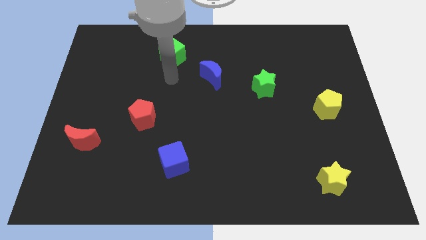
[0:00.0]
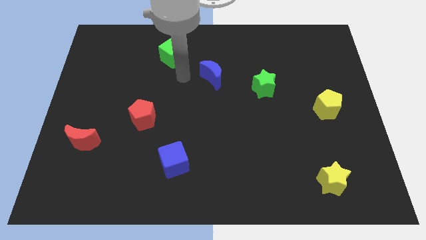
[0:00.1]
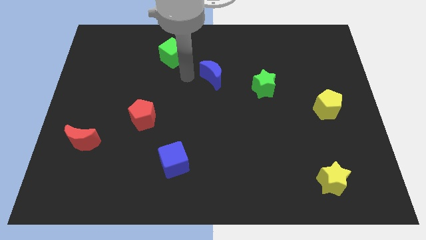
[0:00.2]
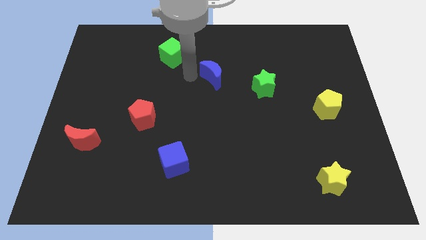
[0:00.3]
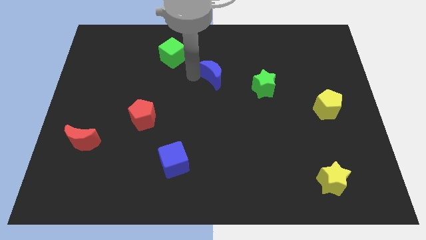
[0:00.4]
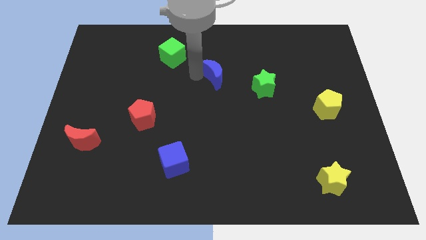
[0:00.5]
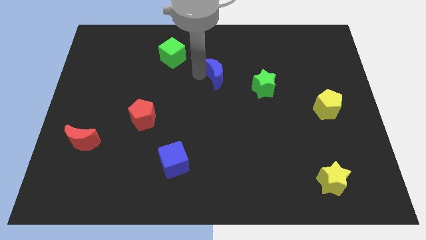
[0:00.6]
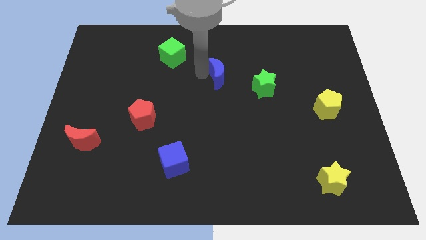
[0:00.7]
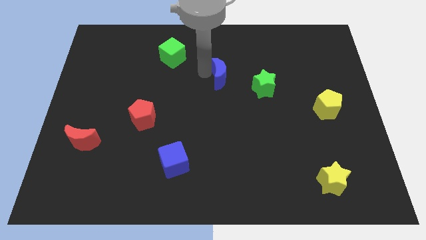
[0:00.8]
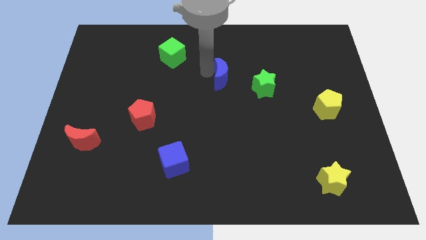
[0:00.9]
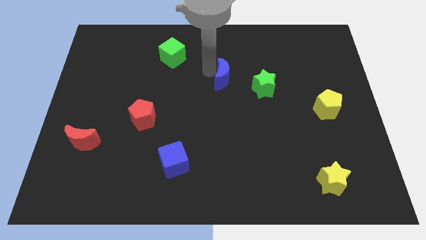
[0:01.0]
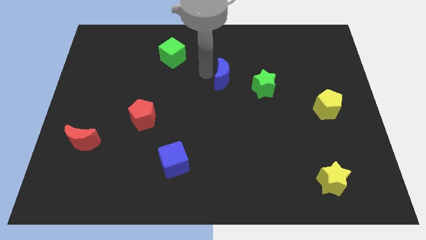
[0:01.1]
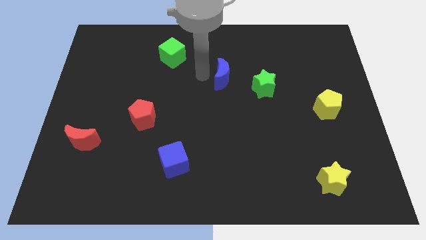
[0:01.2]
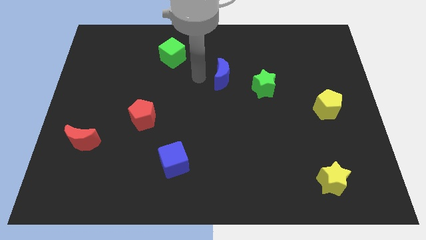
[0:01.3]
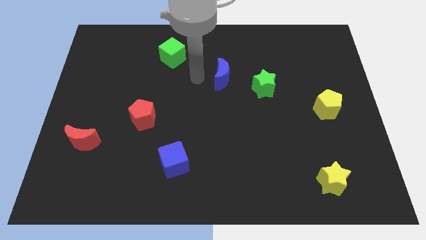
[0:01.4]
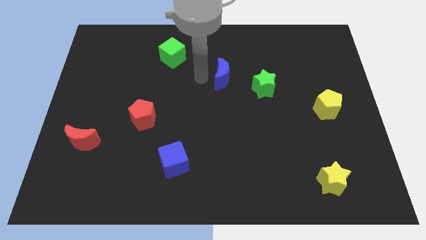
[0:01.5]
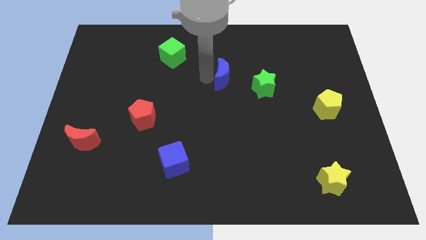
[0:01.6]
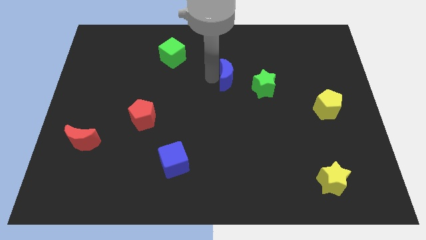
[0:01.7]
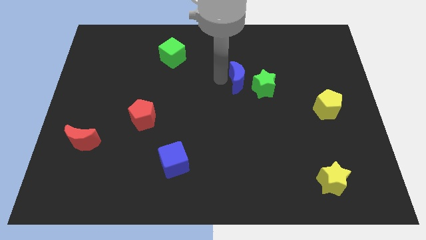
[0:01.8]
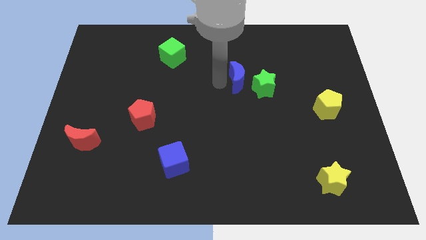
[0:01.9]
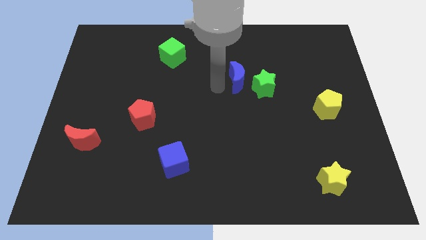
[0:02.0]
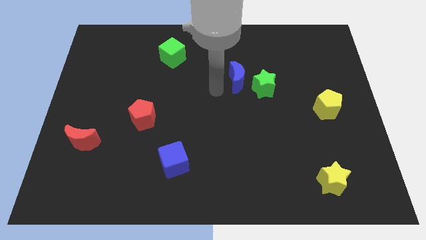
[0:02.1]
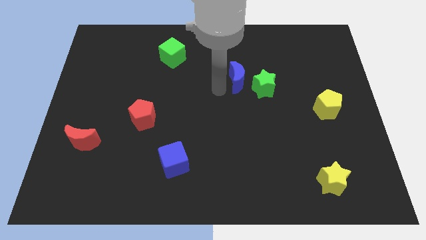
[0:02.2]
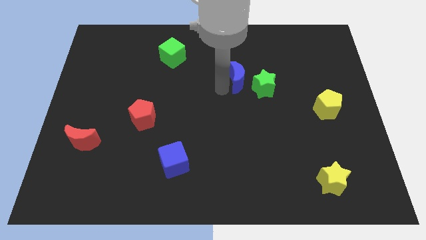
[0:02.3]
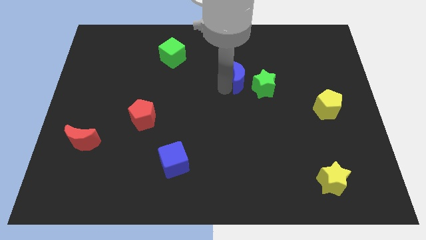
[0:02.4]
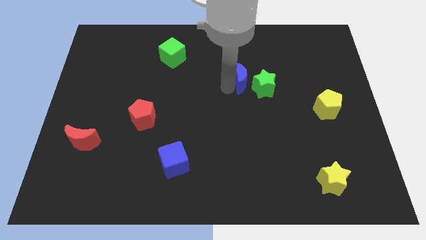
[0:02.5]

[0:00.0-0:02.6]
move the blue moon somewhat to the right

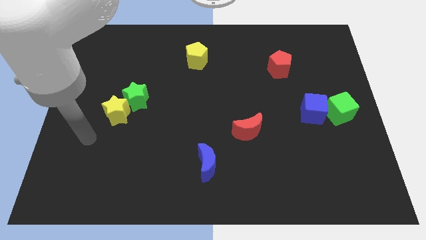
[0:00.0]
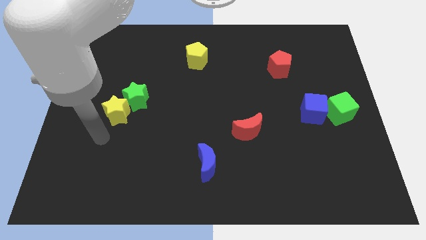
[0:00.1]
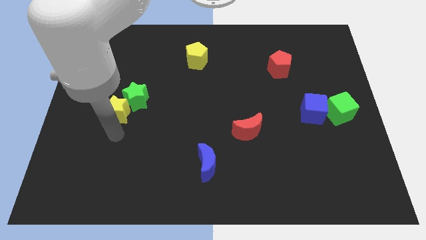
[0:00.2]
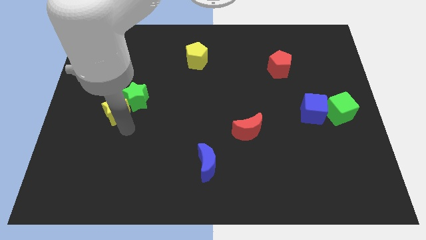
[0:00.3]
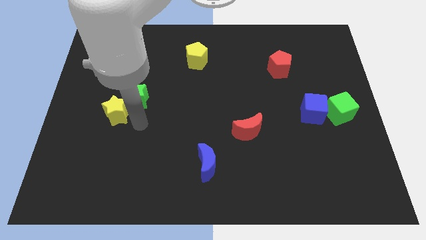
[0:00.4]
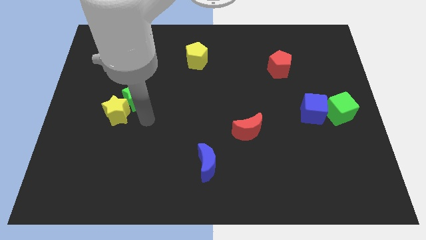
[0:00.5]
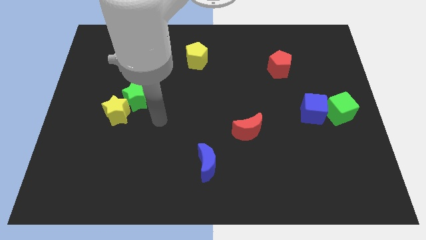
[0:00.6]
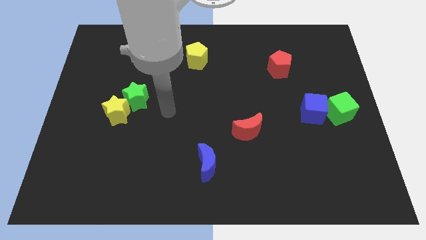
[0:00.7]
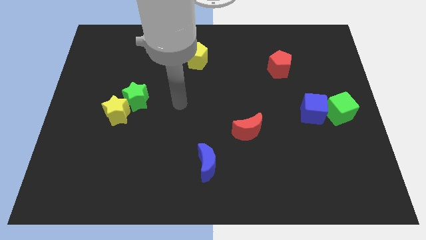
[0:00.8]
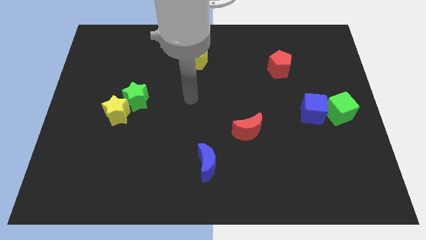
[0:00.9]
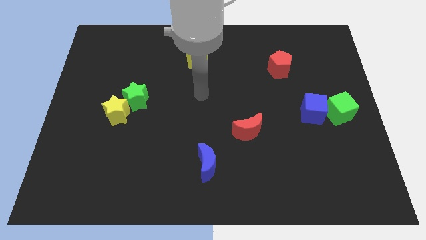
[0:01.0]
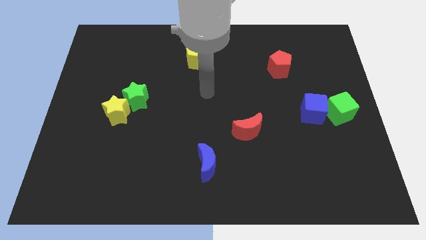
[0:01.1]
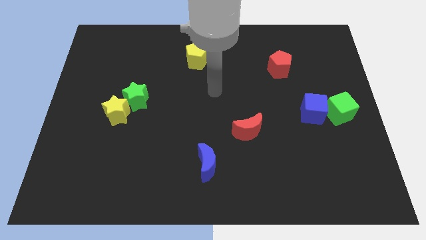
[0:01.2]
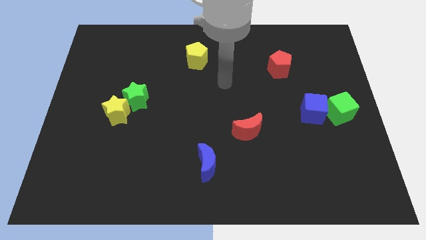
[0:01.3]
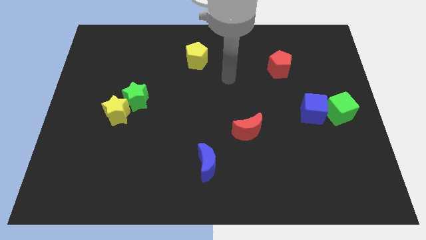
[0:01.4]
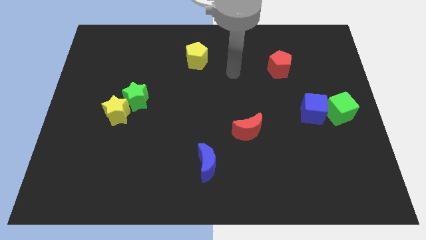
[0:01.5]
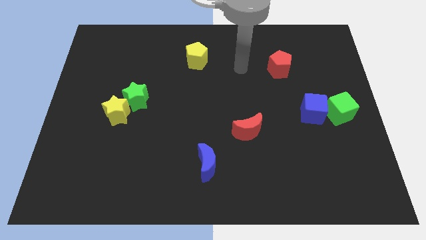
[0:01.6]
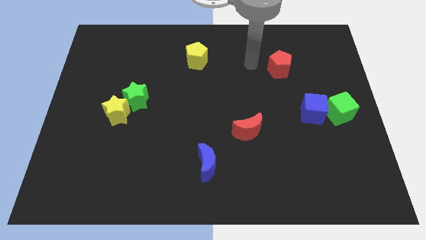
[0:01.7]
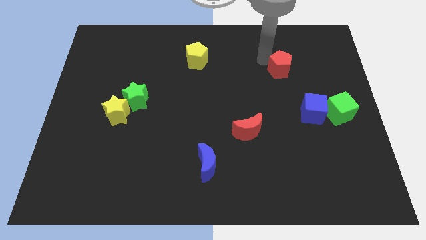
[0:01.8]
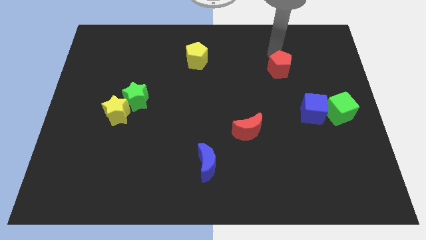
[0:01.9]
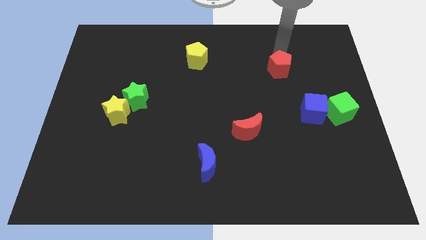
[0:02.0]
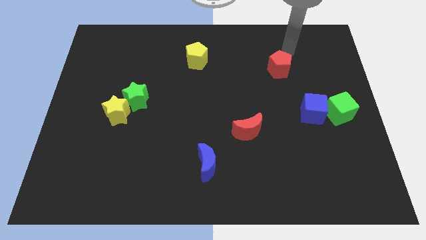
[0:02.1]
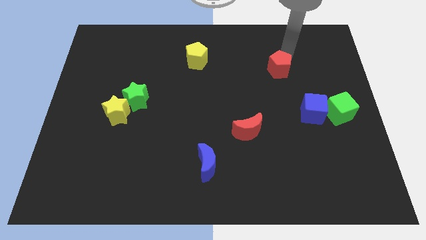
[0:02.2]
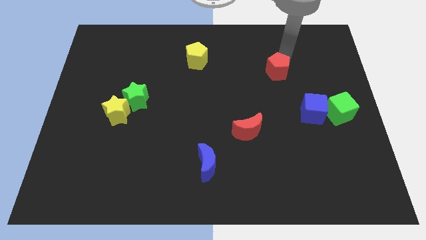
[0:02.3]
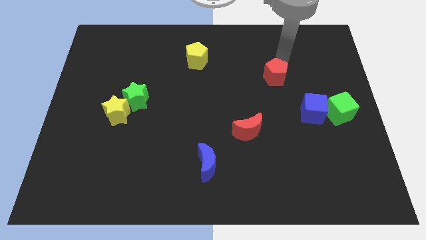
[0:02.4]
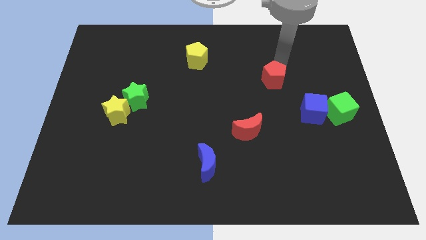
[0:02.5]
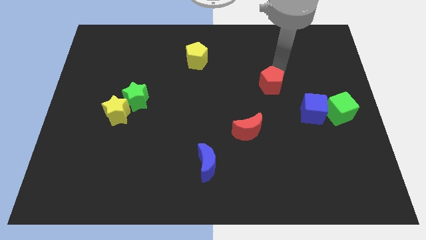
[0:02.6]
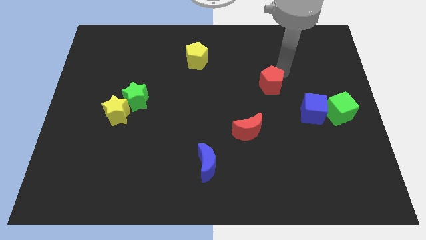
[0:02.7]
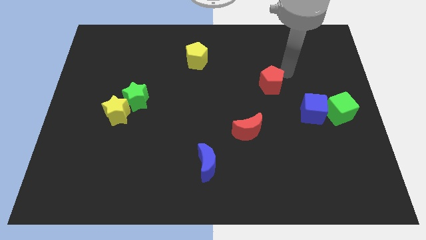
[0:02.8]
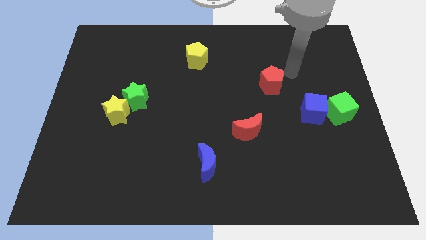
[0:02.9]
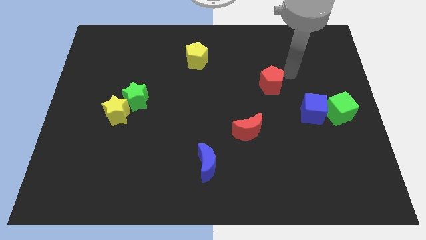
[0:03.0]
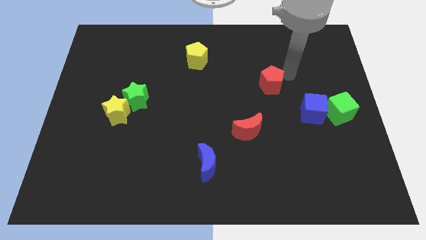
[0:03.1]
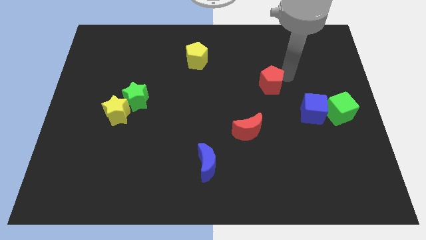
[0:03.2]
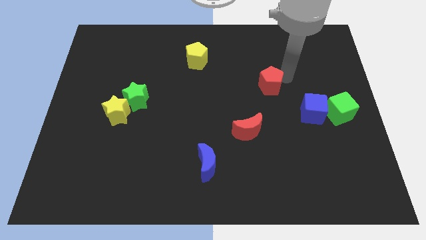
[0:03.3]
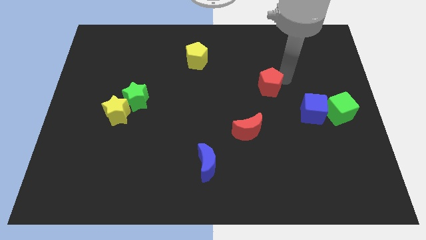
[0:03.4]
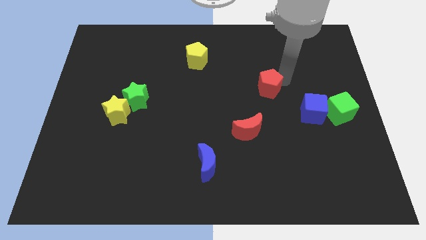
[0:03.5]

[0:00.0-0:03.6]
push the red pentagon downwards and then to the left a little

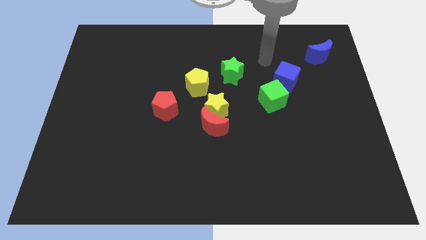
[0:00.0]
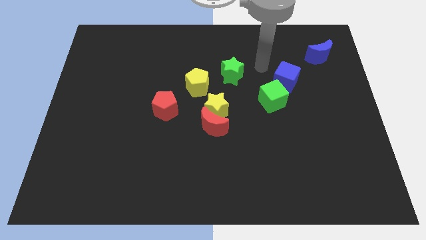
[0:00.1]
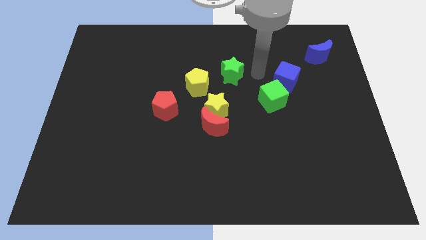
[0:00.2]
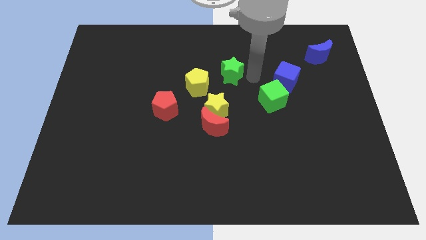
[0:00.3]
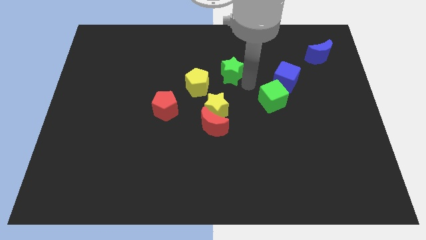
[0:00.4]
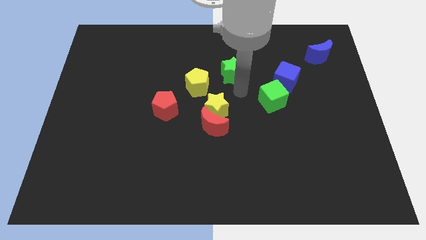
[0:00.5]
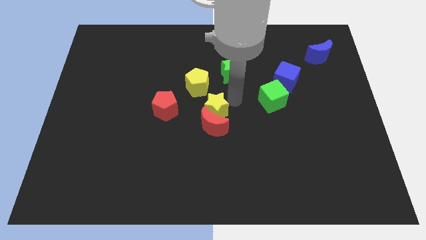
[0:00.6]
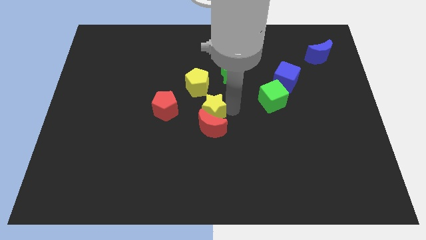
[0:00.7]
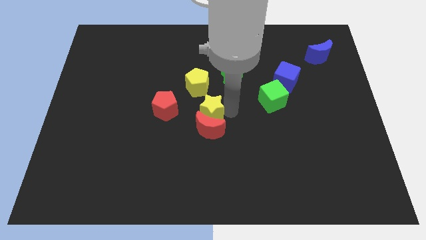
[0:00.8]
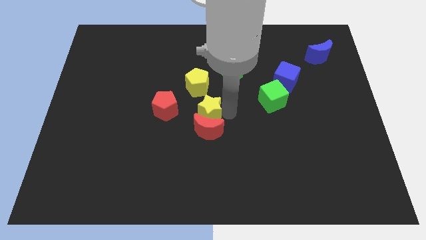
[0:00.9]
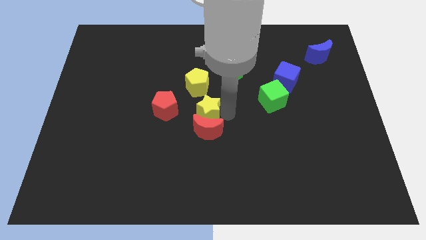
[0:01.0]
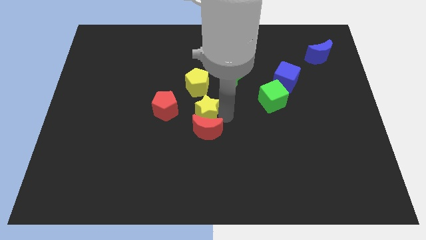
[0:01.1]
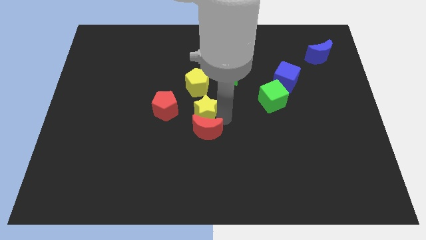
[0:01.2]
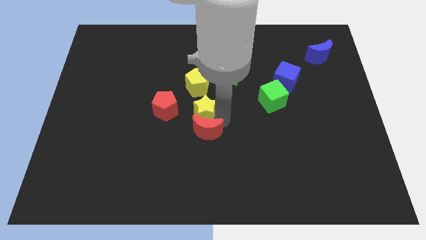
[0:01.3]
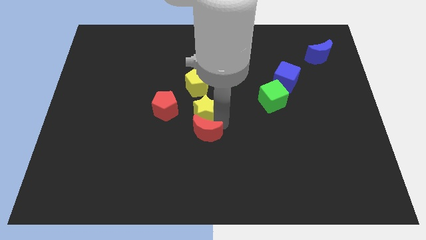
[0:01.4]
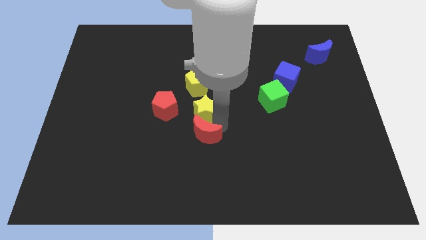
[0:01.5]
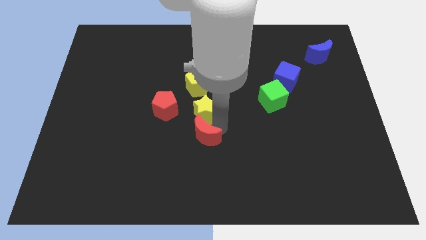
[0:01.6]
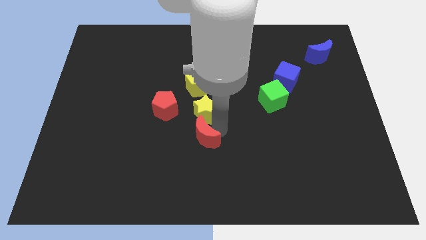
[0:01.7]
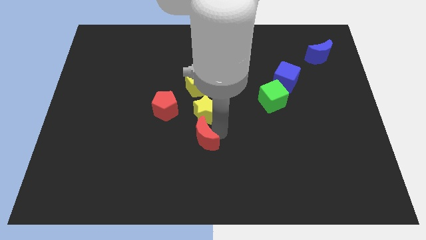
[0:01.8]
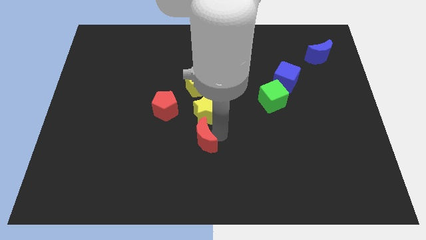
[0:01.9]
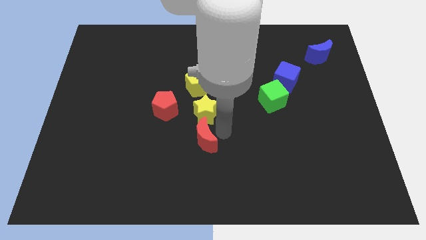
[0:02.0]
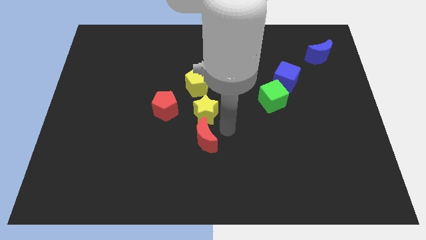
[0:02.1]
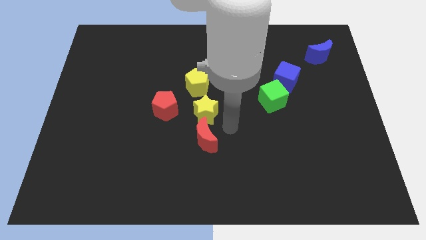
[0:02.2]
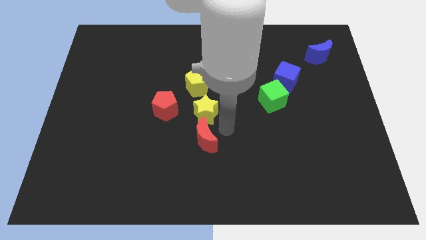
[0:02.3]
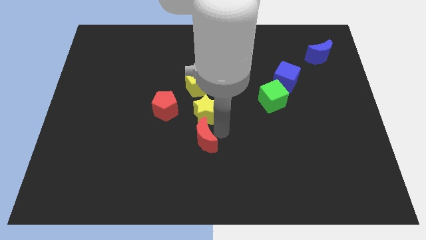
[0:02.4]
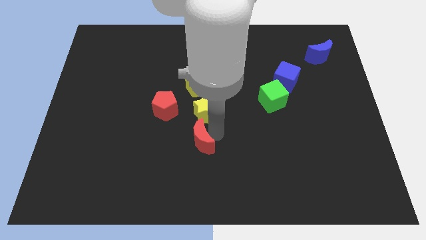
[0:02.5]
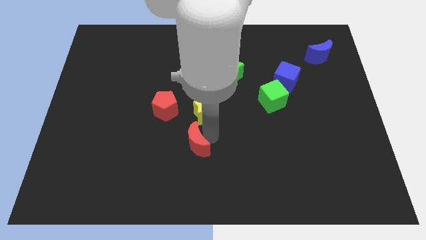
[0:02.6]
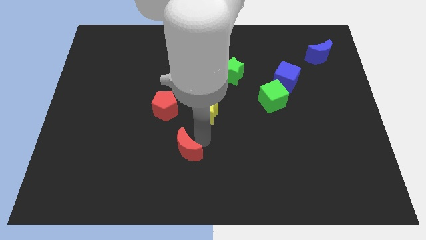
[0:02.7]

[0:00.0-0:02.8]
slide the red moon diagonally downwards and left a little bit
